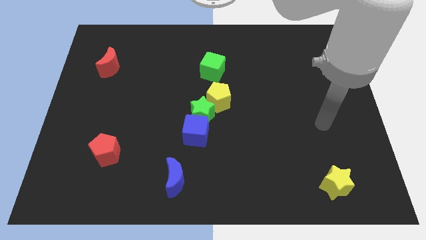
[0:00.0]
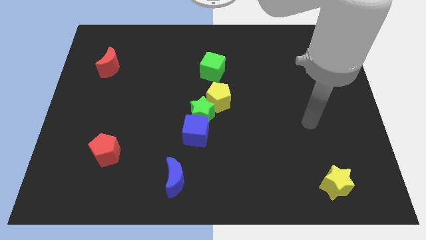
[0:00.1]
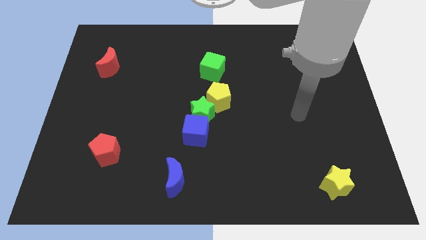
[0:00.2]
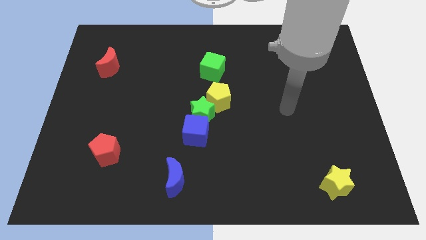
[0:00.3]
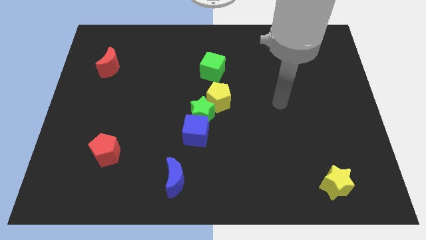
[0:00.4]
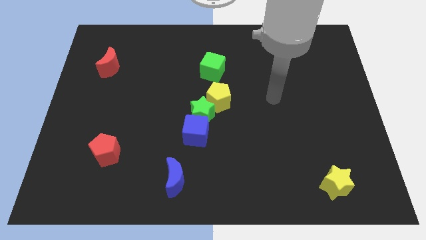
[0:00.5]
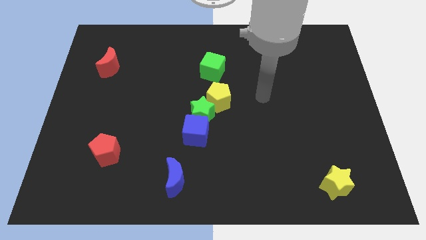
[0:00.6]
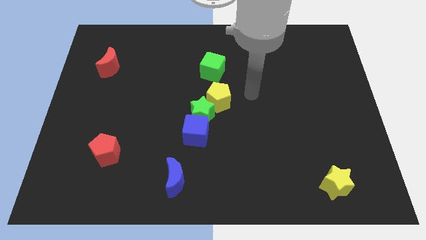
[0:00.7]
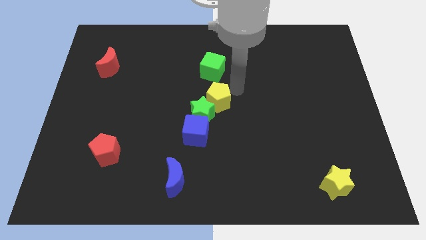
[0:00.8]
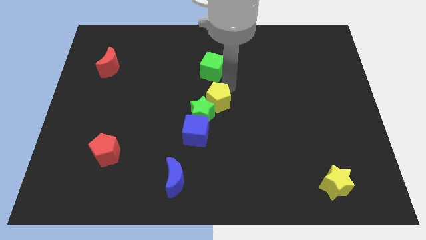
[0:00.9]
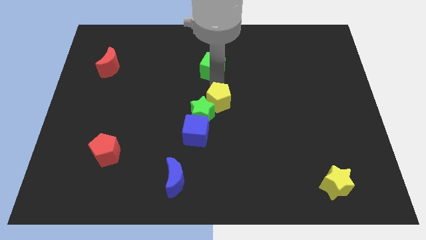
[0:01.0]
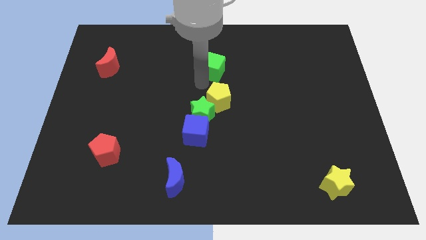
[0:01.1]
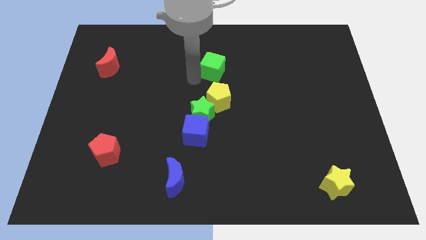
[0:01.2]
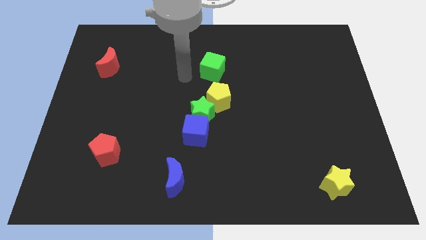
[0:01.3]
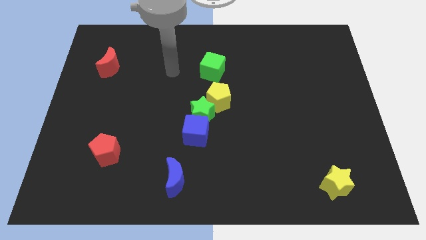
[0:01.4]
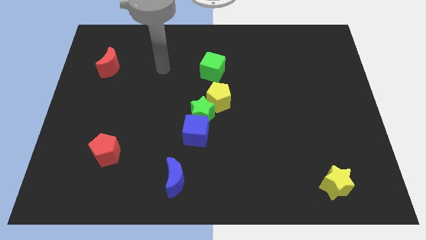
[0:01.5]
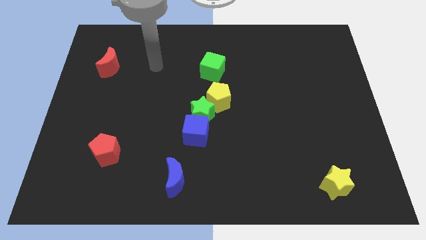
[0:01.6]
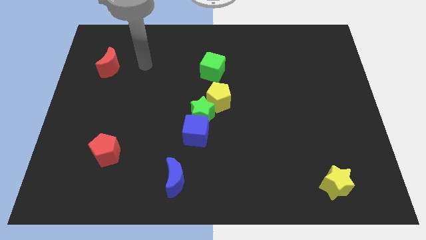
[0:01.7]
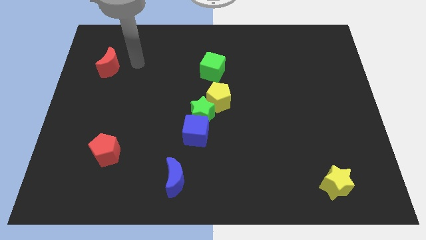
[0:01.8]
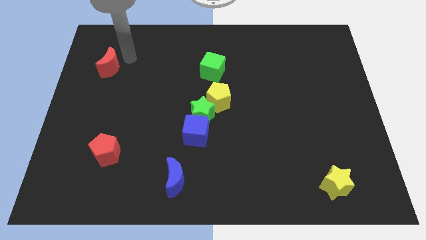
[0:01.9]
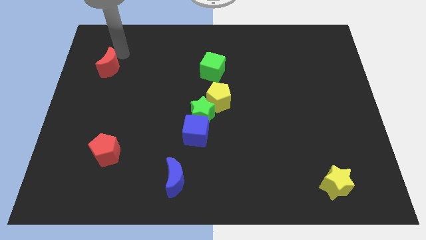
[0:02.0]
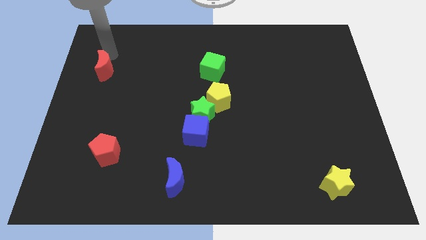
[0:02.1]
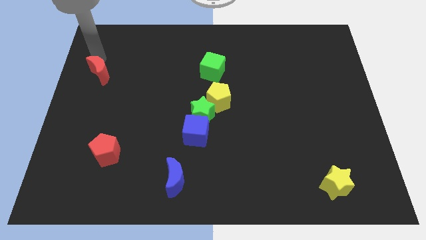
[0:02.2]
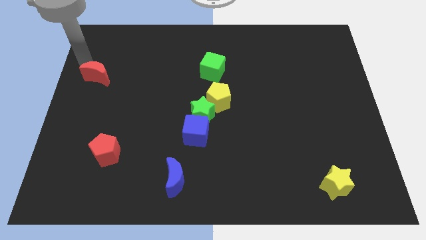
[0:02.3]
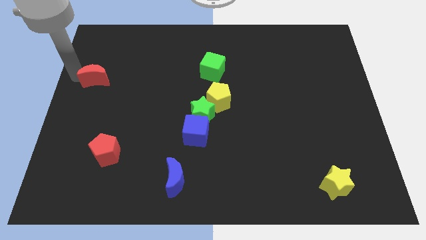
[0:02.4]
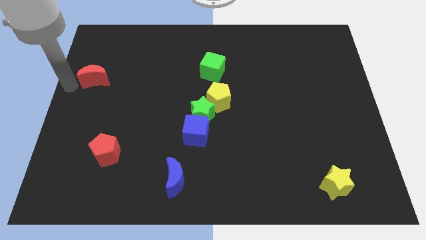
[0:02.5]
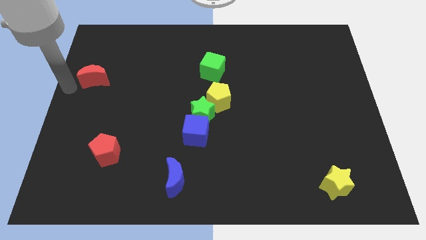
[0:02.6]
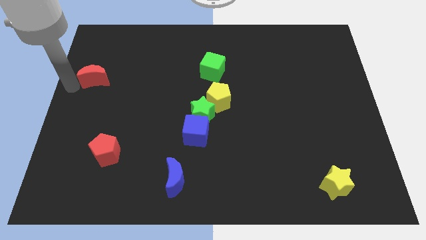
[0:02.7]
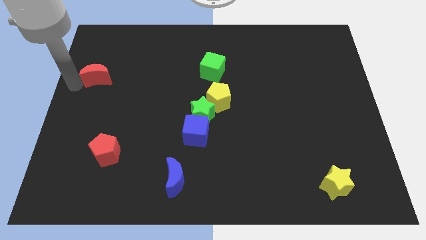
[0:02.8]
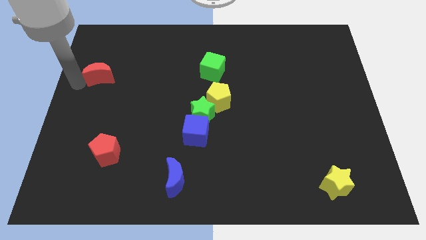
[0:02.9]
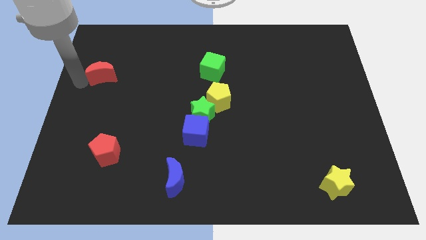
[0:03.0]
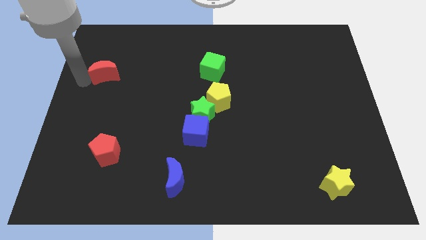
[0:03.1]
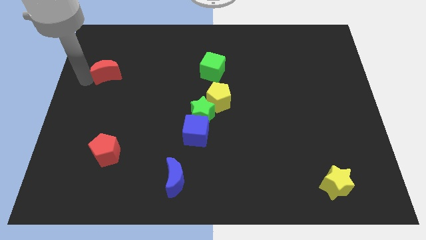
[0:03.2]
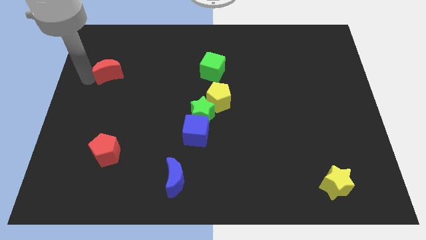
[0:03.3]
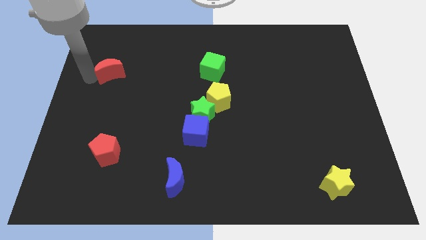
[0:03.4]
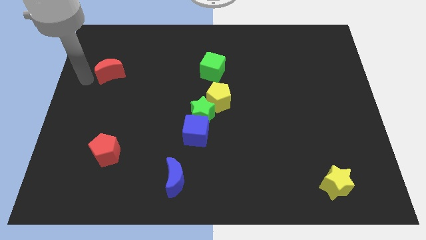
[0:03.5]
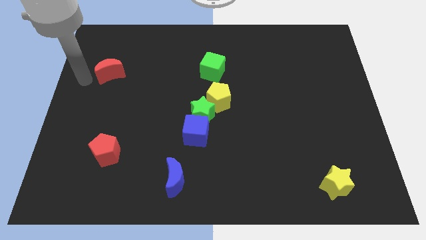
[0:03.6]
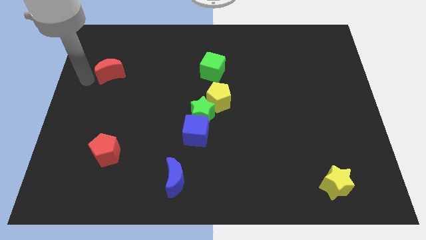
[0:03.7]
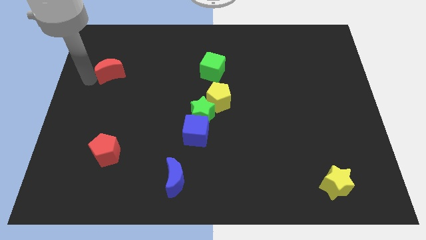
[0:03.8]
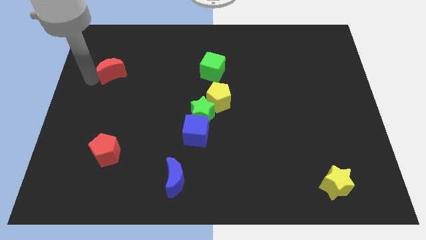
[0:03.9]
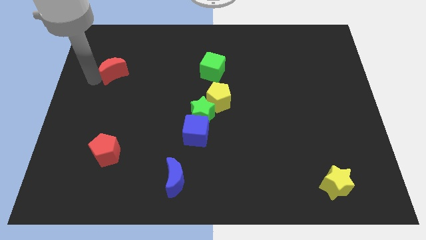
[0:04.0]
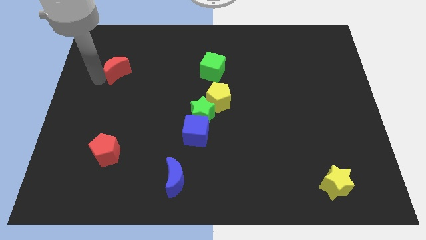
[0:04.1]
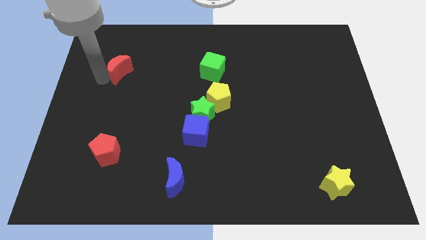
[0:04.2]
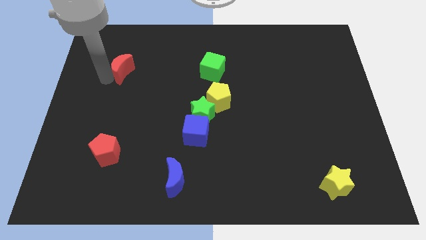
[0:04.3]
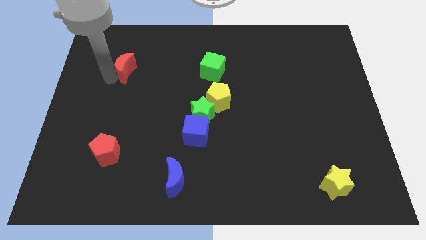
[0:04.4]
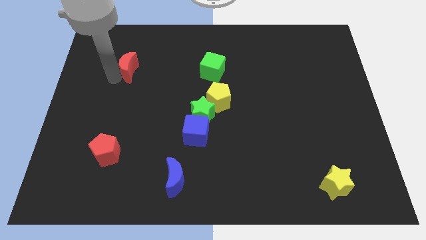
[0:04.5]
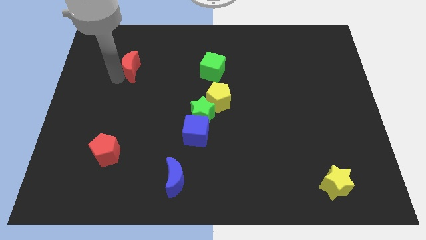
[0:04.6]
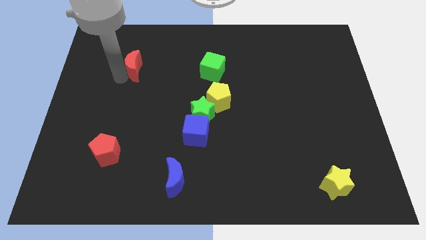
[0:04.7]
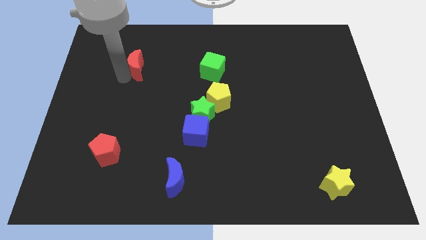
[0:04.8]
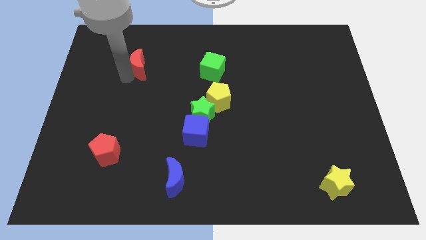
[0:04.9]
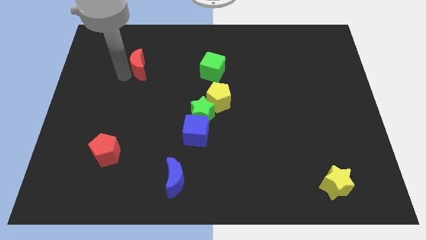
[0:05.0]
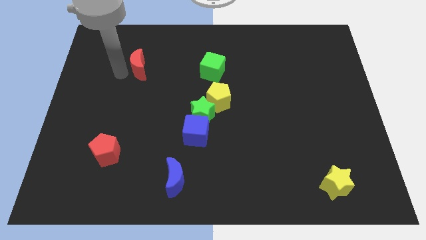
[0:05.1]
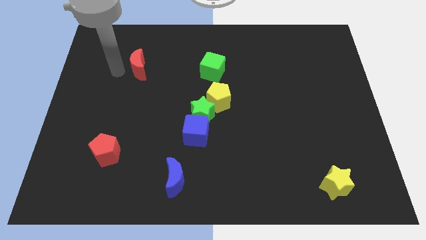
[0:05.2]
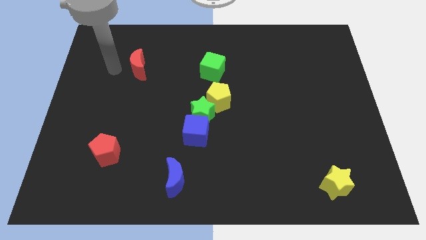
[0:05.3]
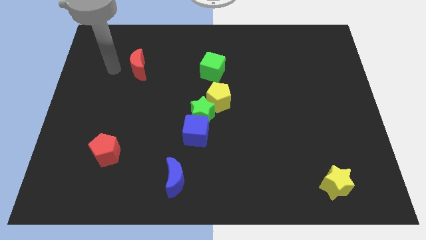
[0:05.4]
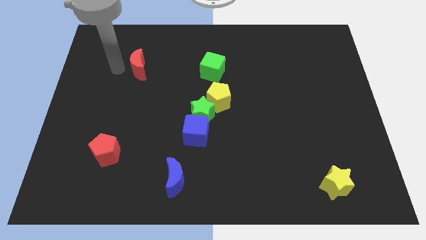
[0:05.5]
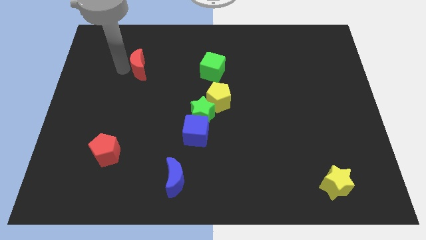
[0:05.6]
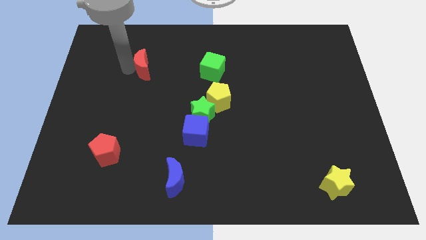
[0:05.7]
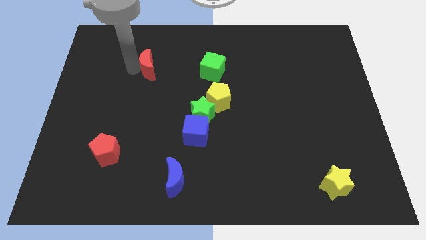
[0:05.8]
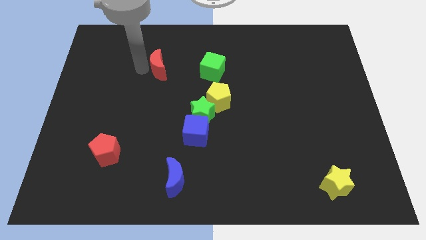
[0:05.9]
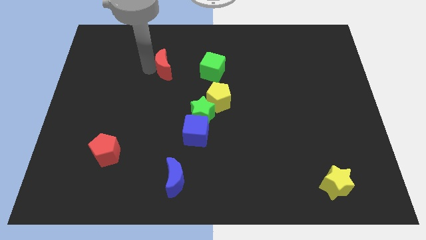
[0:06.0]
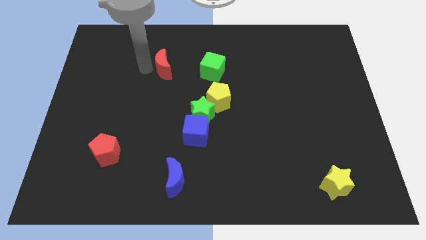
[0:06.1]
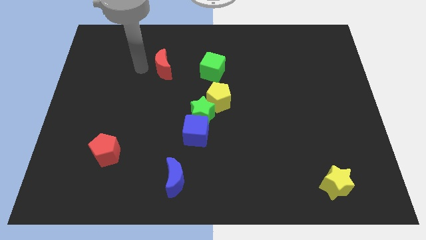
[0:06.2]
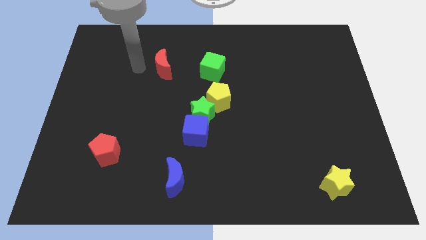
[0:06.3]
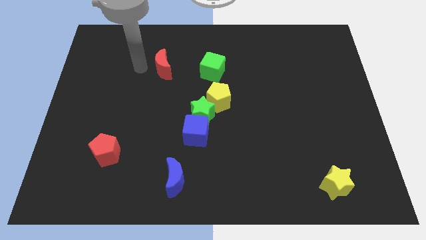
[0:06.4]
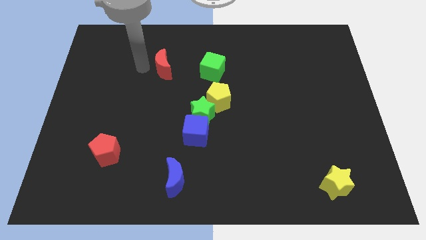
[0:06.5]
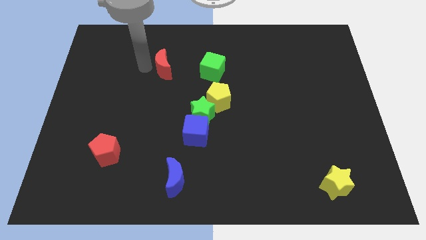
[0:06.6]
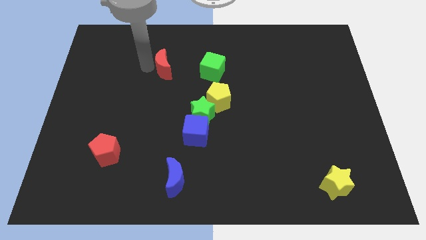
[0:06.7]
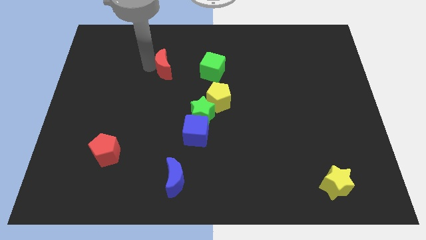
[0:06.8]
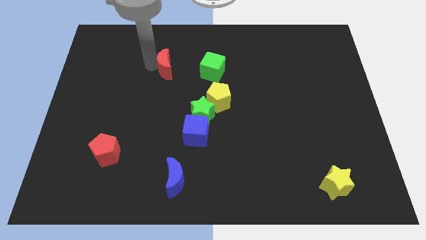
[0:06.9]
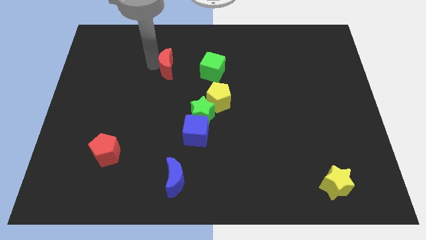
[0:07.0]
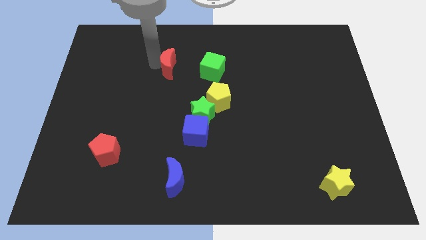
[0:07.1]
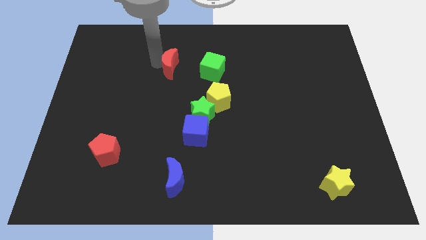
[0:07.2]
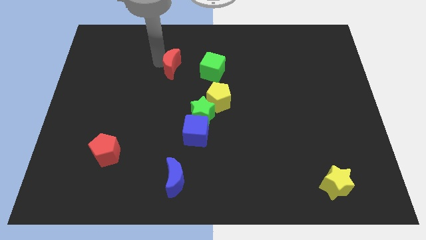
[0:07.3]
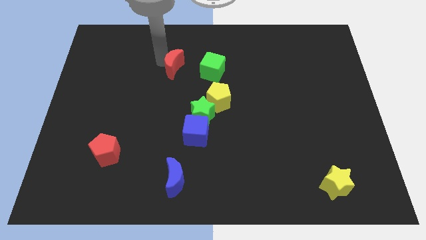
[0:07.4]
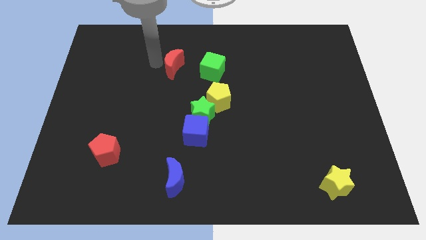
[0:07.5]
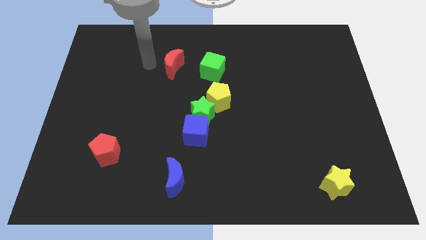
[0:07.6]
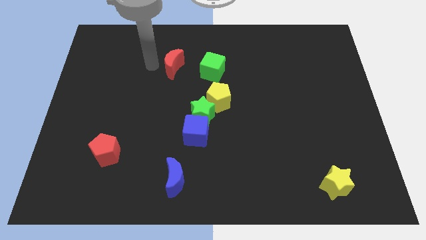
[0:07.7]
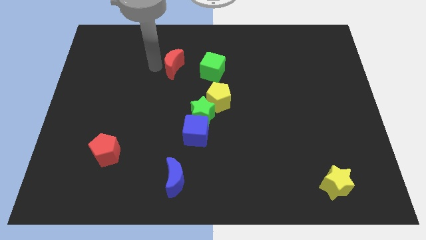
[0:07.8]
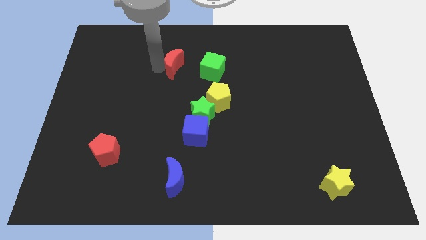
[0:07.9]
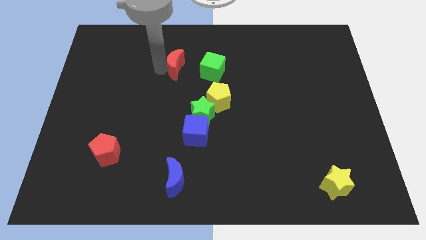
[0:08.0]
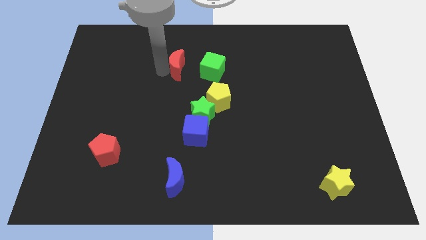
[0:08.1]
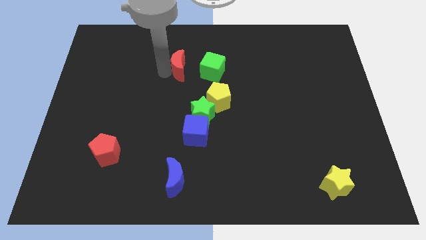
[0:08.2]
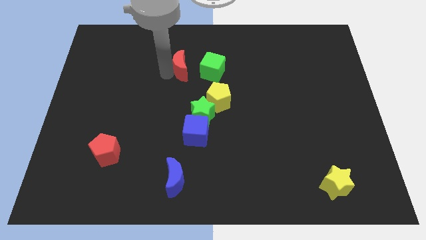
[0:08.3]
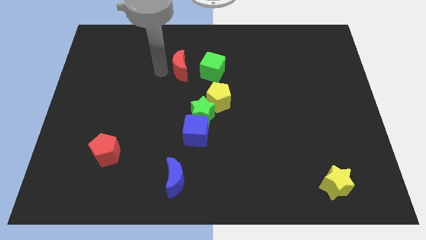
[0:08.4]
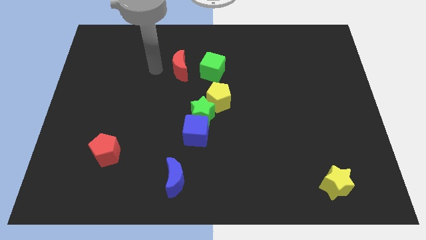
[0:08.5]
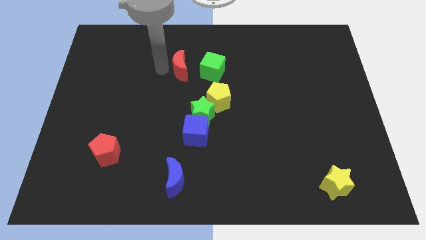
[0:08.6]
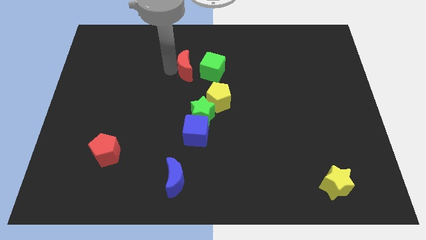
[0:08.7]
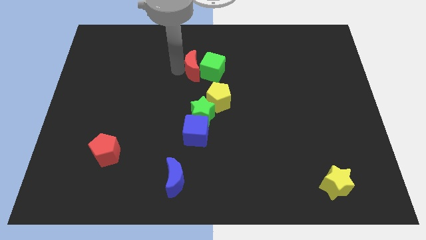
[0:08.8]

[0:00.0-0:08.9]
push the red moon next to the green cube
